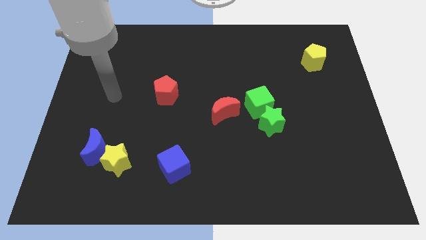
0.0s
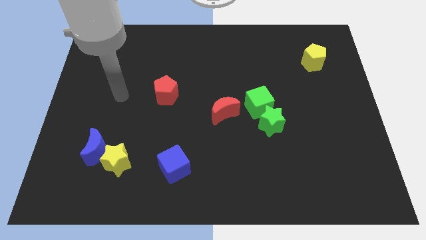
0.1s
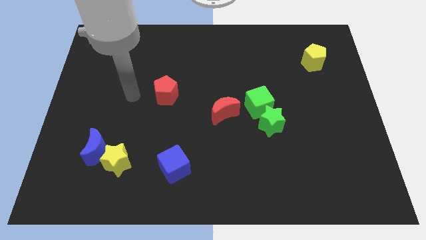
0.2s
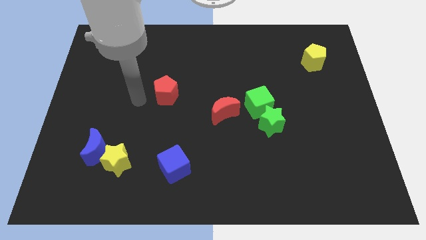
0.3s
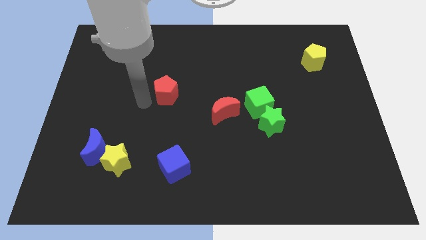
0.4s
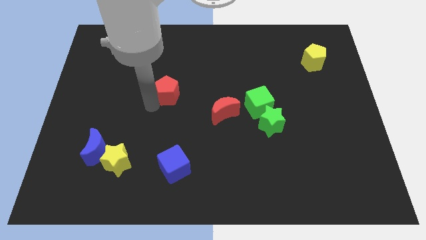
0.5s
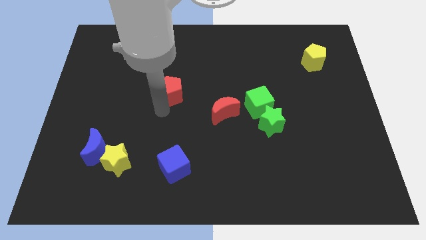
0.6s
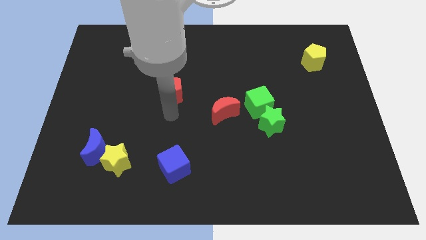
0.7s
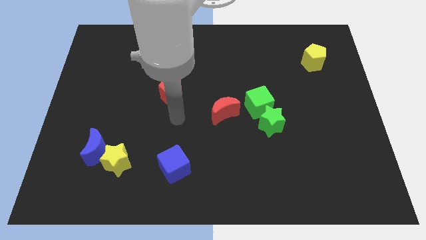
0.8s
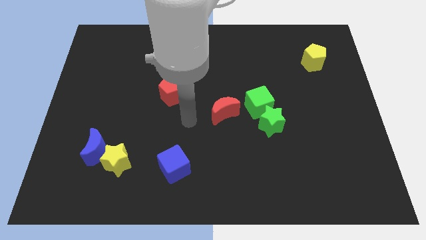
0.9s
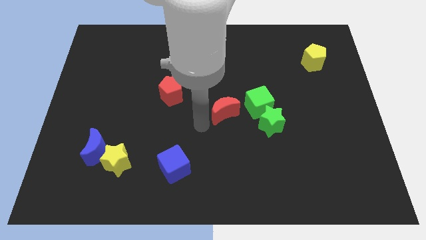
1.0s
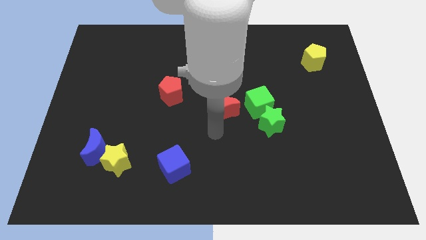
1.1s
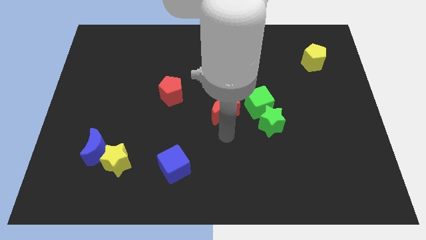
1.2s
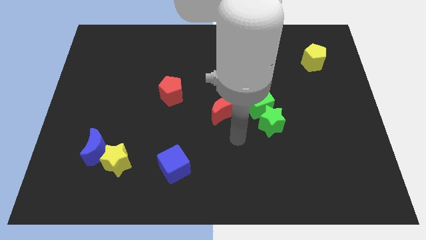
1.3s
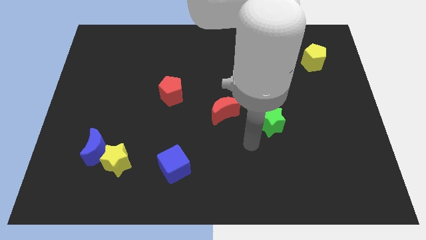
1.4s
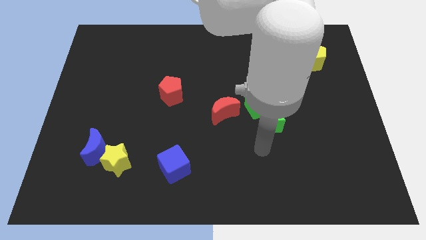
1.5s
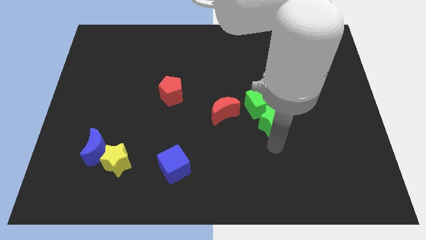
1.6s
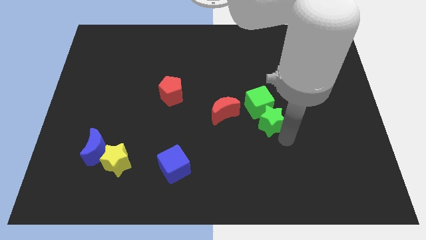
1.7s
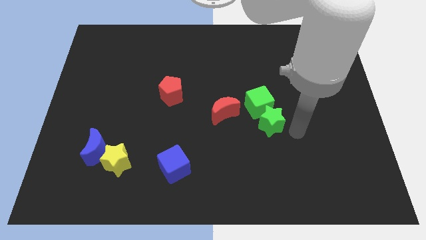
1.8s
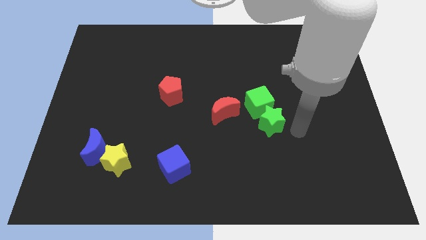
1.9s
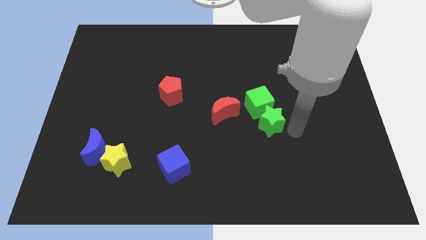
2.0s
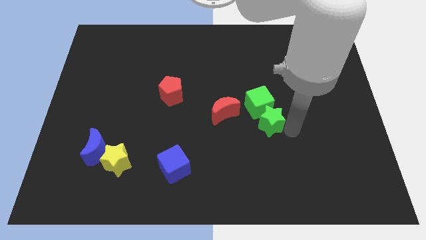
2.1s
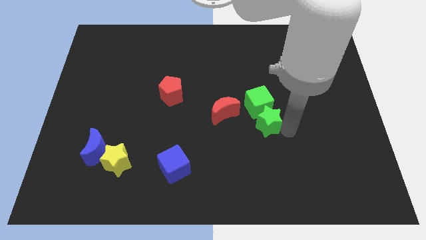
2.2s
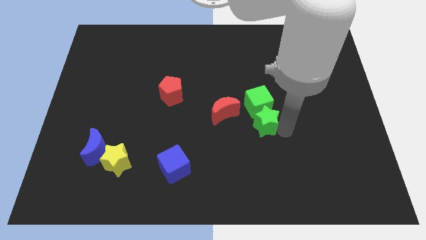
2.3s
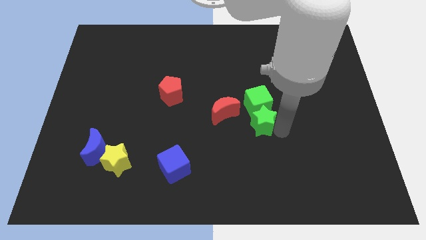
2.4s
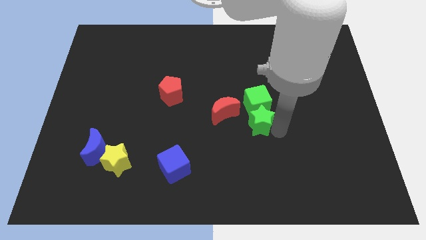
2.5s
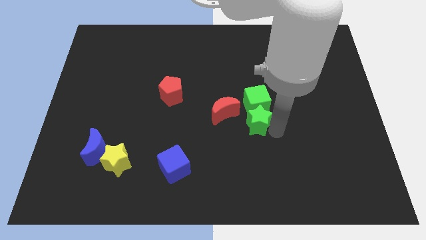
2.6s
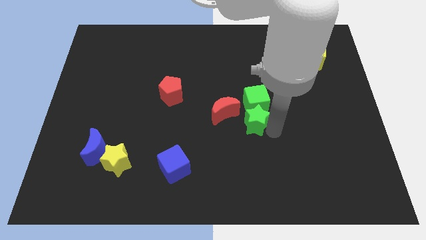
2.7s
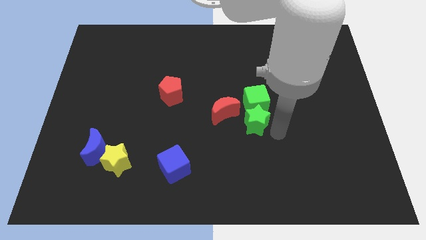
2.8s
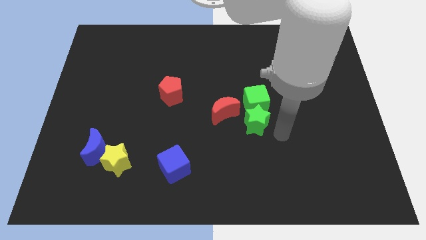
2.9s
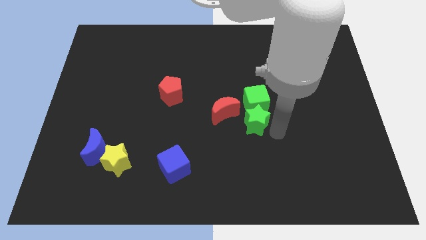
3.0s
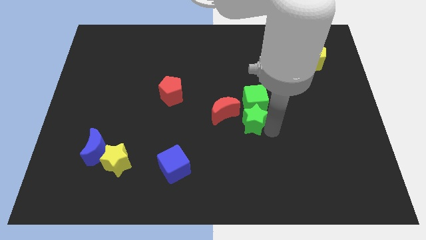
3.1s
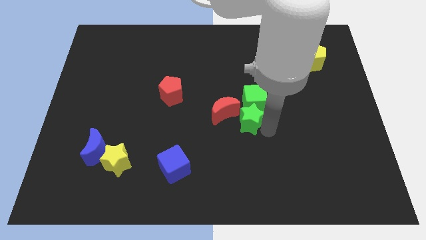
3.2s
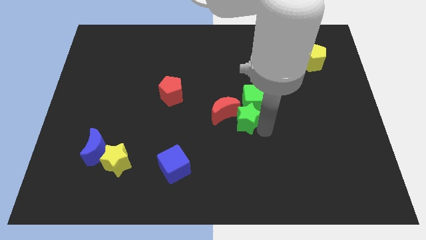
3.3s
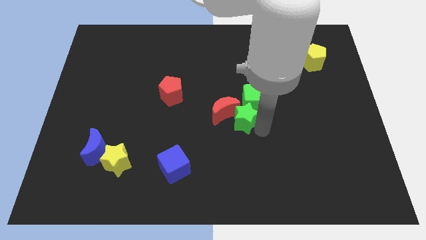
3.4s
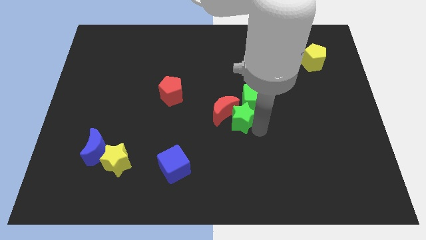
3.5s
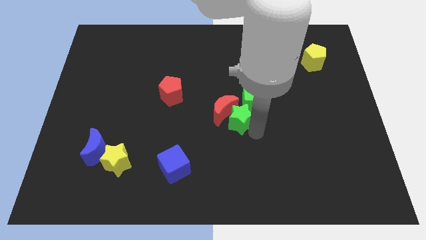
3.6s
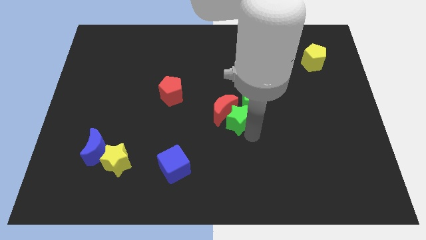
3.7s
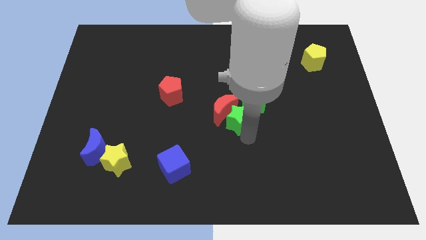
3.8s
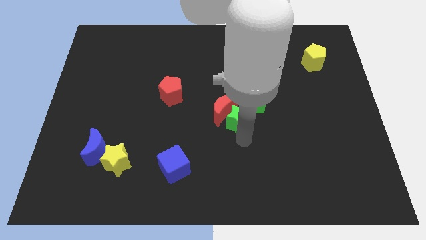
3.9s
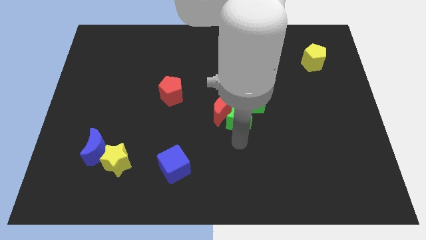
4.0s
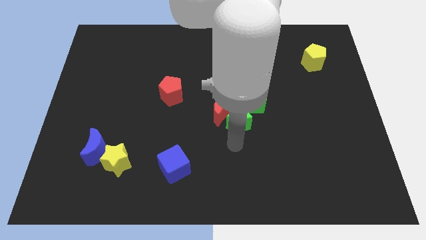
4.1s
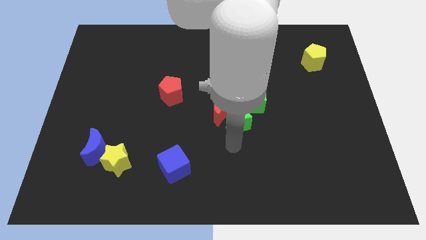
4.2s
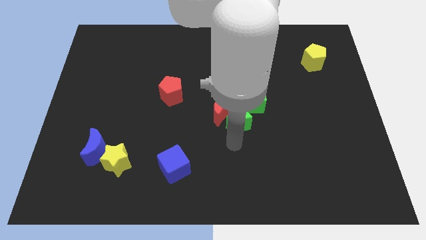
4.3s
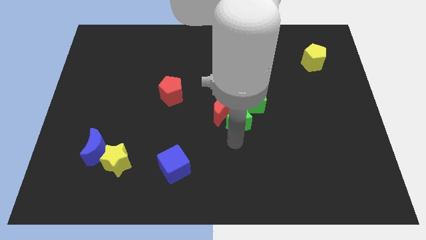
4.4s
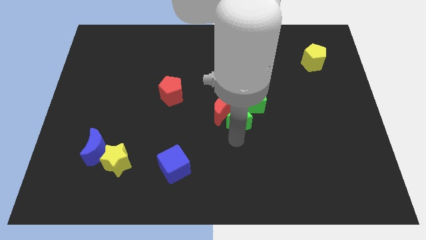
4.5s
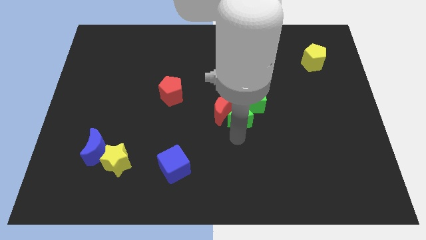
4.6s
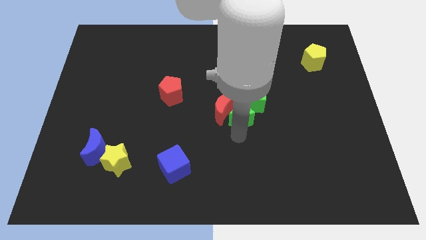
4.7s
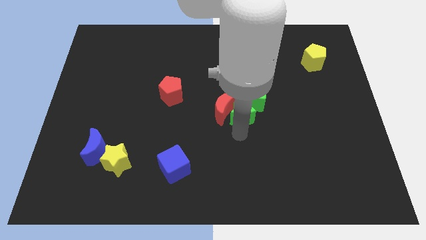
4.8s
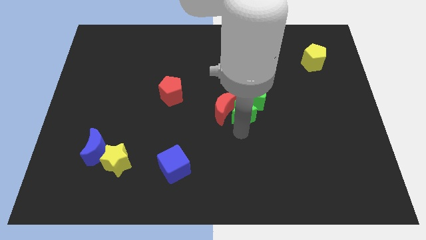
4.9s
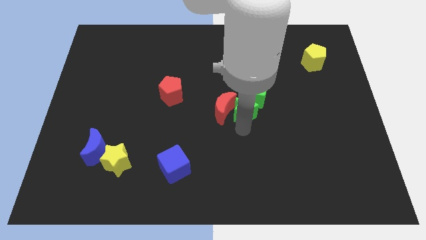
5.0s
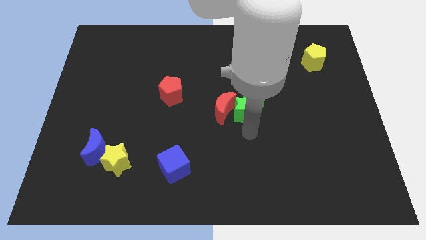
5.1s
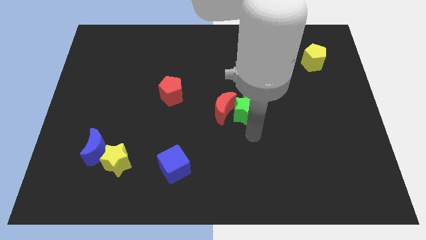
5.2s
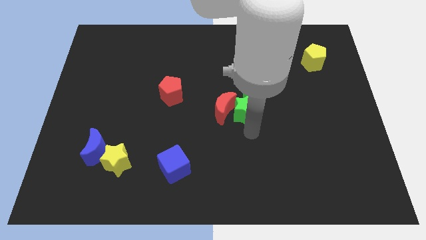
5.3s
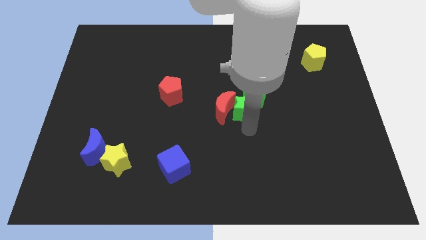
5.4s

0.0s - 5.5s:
slightly push the green star diagonally upwards and left

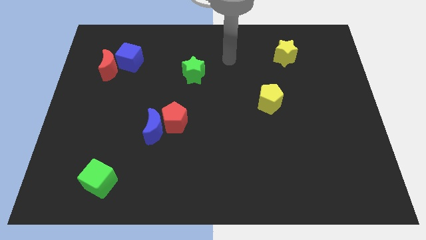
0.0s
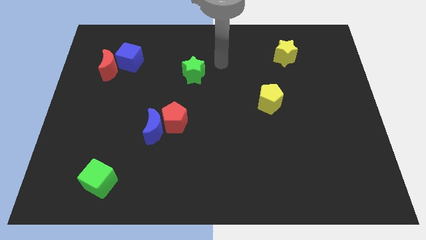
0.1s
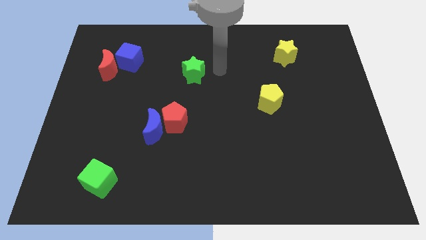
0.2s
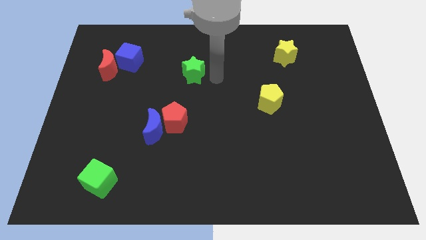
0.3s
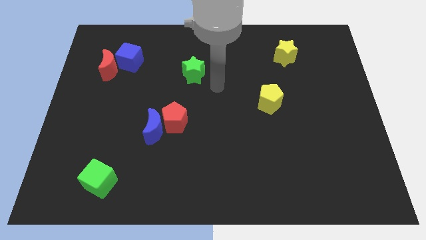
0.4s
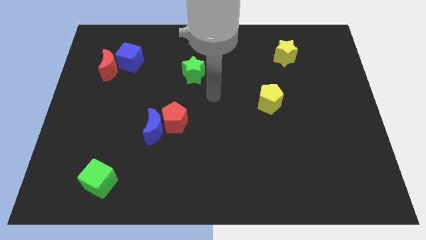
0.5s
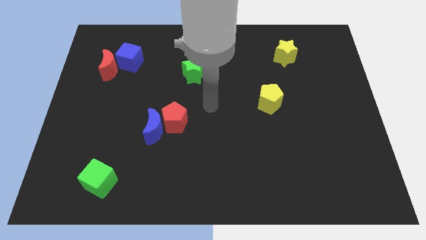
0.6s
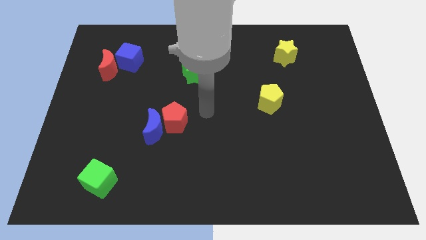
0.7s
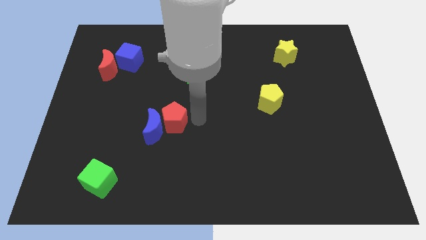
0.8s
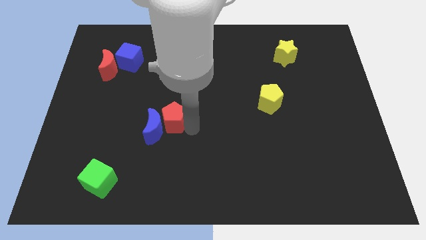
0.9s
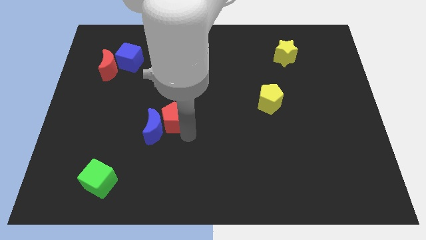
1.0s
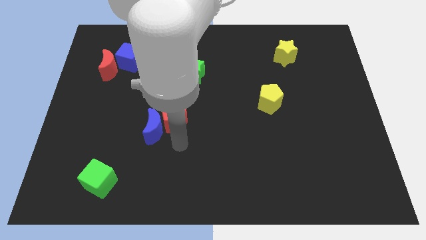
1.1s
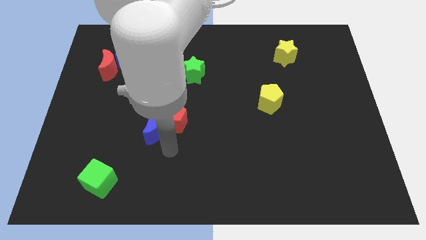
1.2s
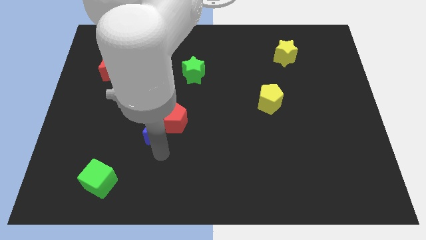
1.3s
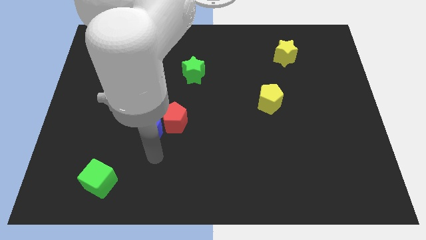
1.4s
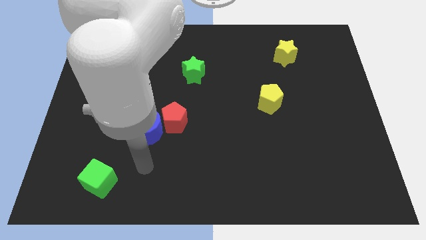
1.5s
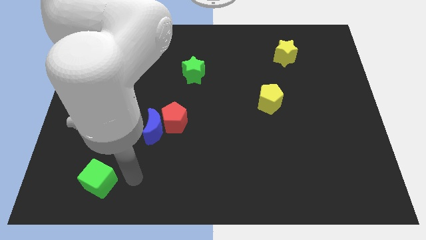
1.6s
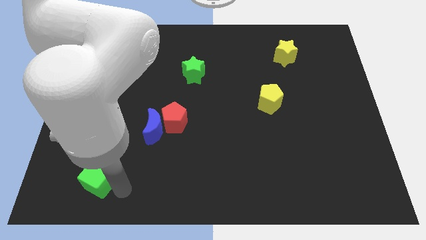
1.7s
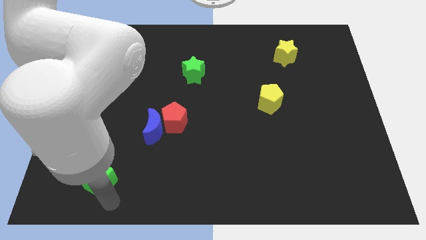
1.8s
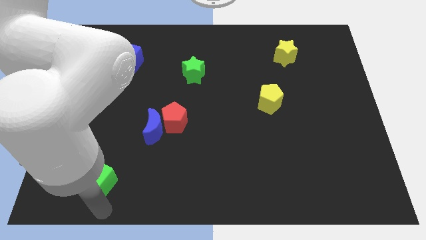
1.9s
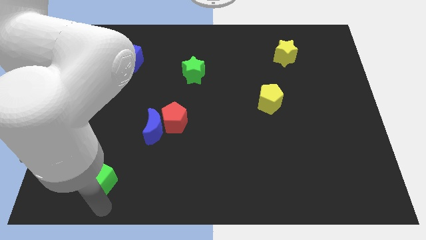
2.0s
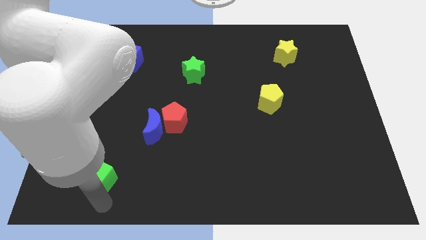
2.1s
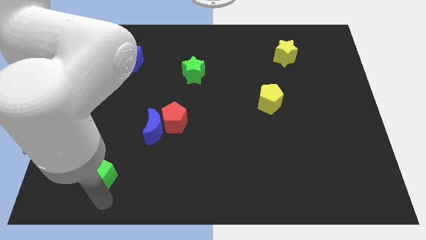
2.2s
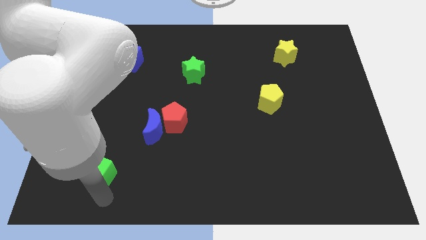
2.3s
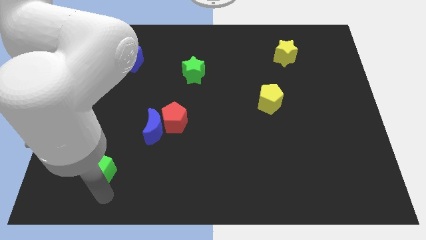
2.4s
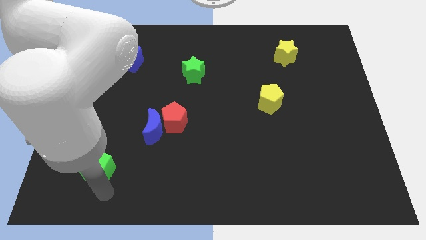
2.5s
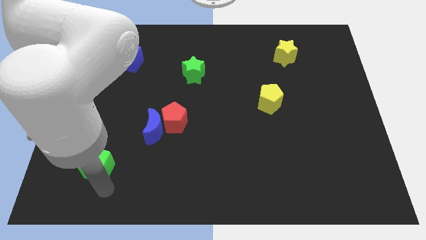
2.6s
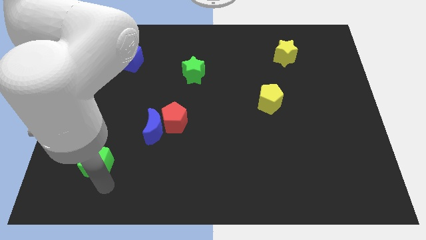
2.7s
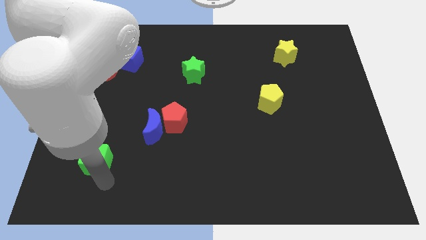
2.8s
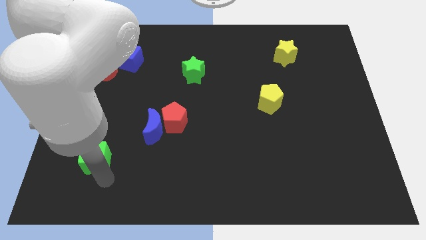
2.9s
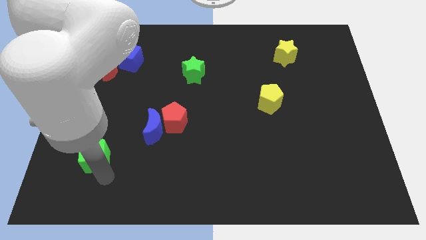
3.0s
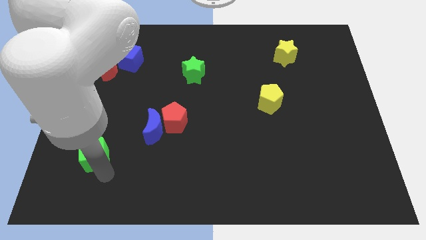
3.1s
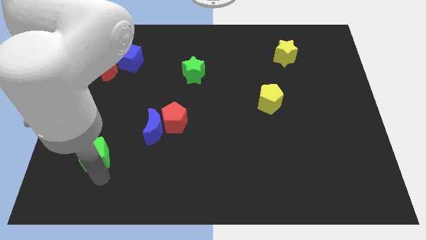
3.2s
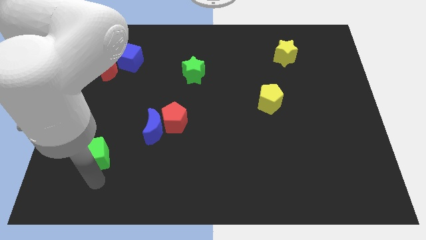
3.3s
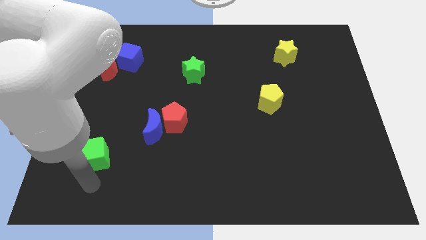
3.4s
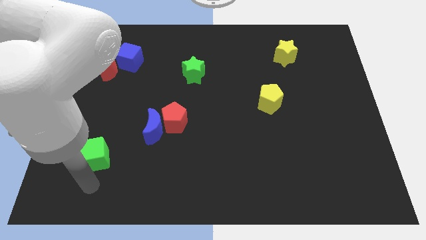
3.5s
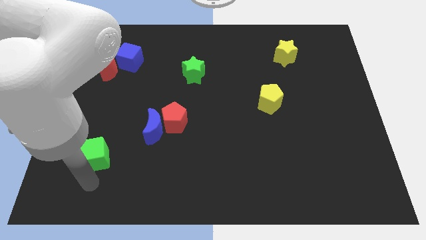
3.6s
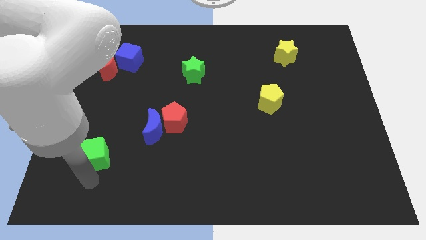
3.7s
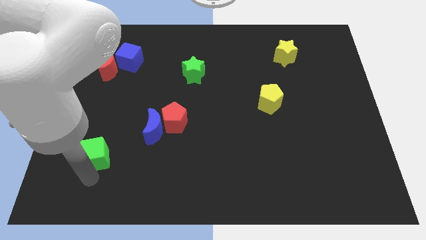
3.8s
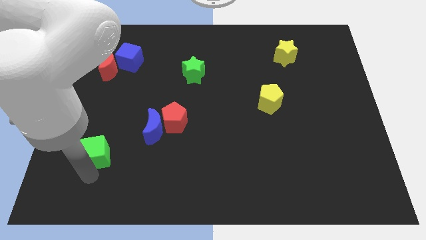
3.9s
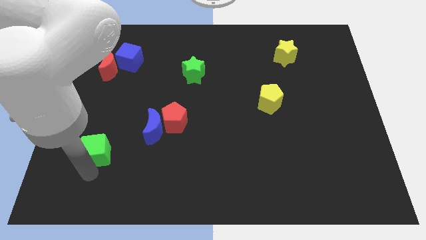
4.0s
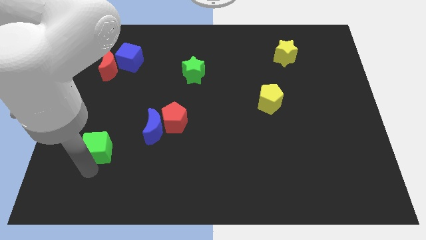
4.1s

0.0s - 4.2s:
slightly slide the green cube upwards
